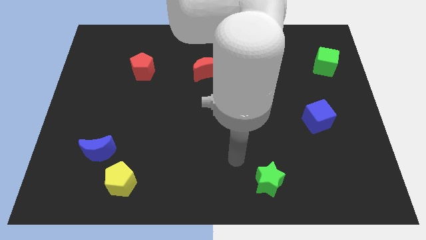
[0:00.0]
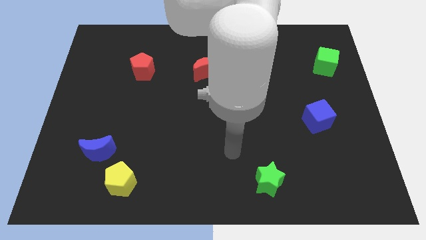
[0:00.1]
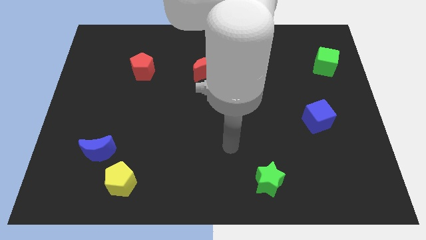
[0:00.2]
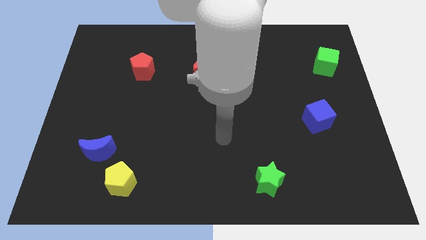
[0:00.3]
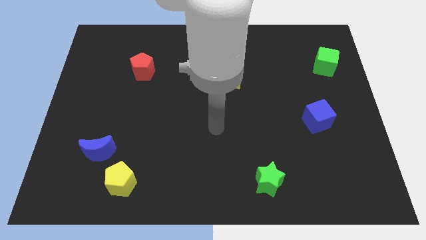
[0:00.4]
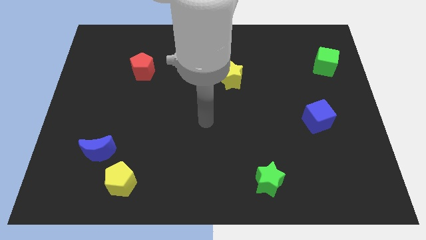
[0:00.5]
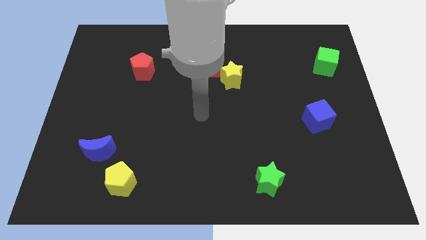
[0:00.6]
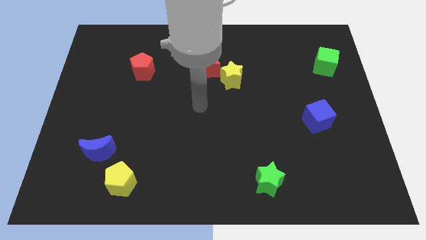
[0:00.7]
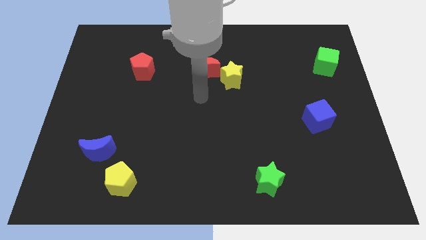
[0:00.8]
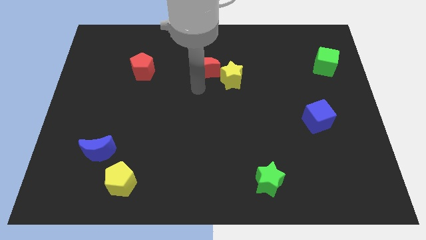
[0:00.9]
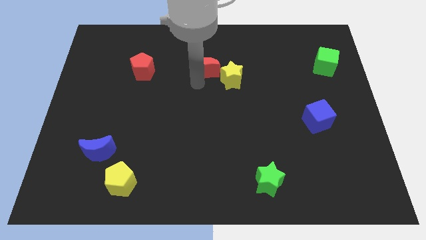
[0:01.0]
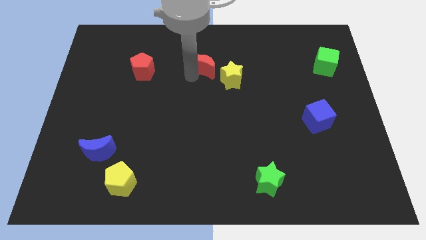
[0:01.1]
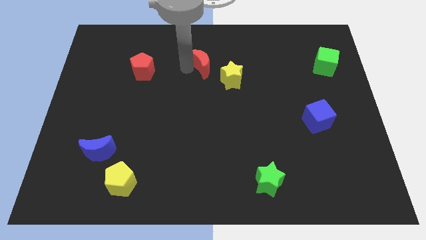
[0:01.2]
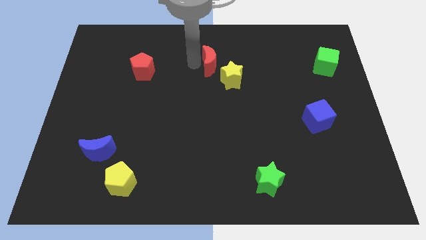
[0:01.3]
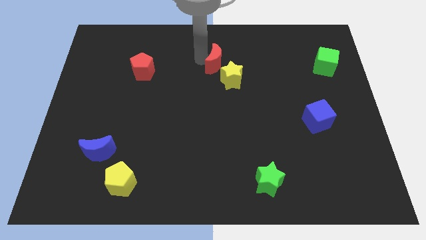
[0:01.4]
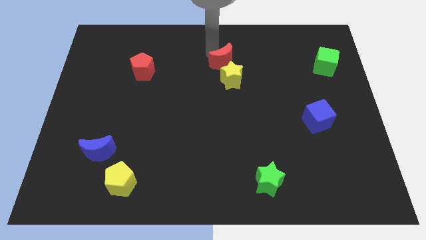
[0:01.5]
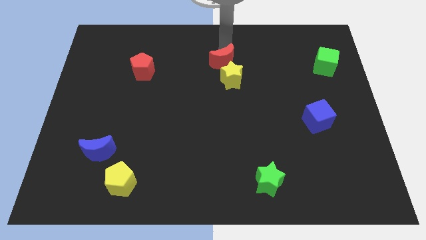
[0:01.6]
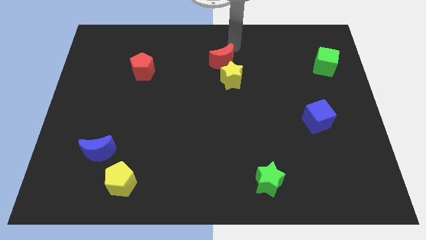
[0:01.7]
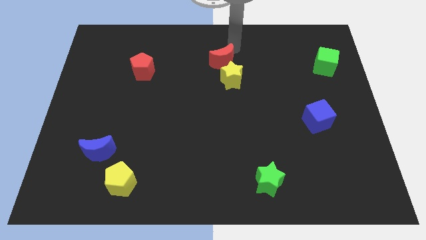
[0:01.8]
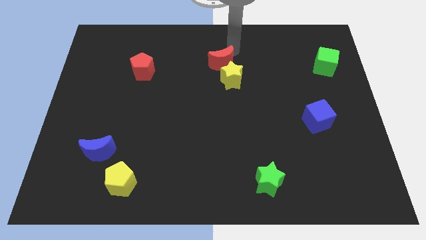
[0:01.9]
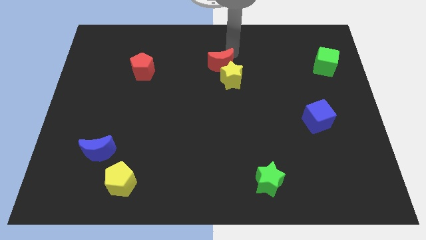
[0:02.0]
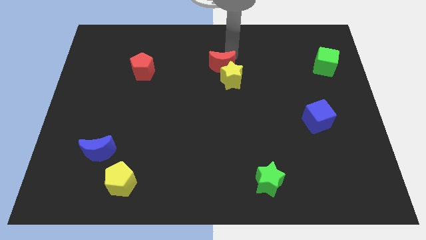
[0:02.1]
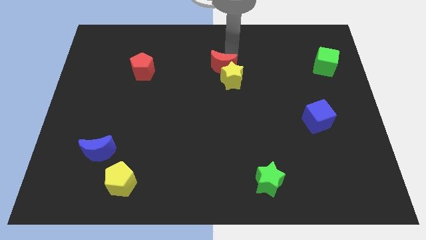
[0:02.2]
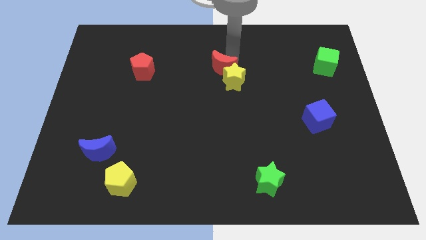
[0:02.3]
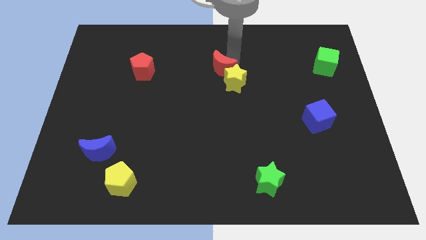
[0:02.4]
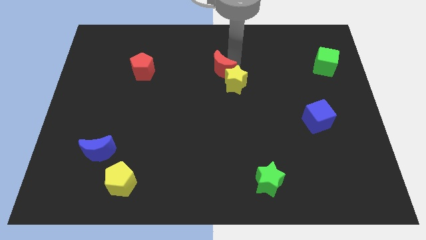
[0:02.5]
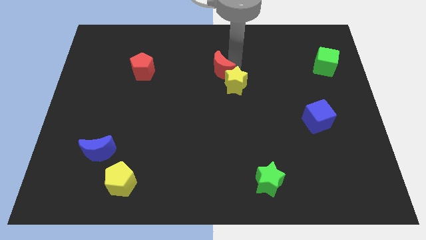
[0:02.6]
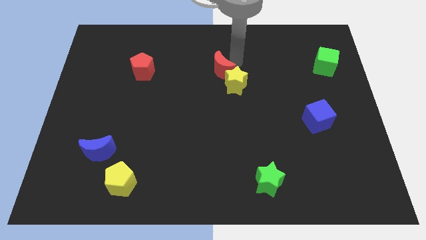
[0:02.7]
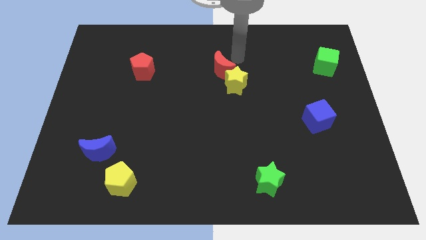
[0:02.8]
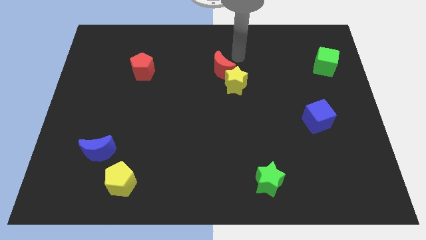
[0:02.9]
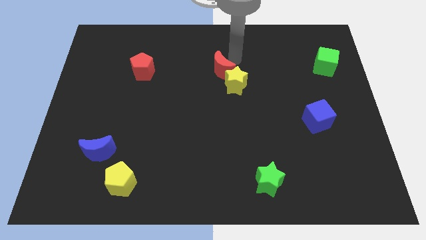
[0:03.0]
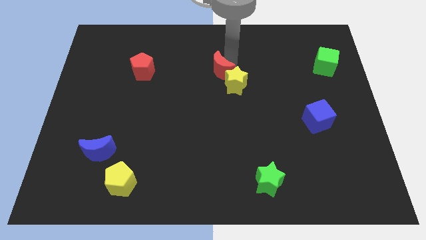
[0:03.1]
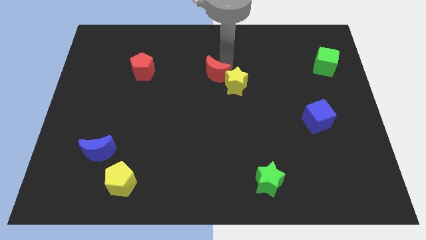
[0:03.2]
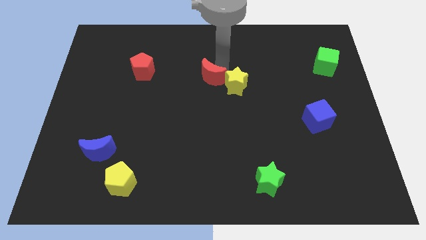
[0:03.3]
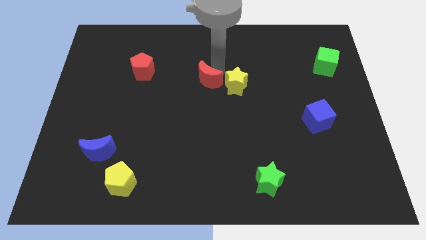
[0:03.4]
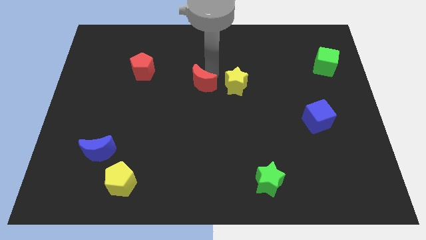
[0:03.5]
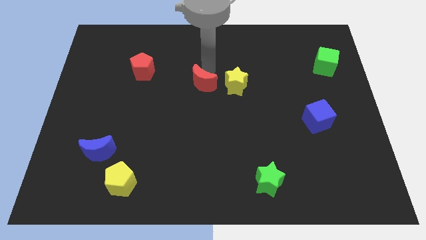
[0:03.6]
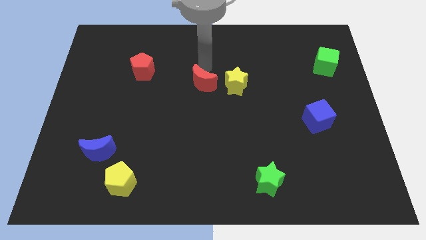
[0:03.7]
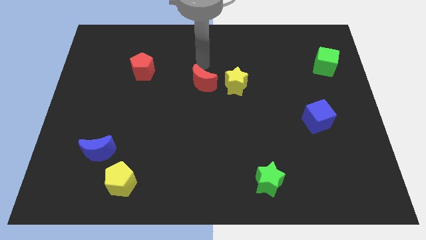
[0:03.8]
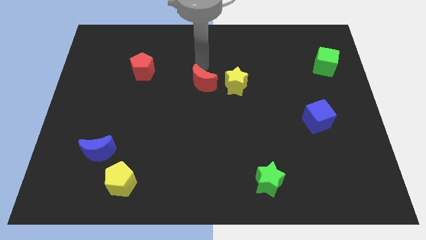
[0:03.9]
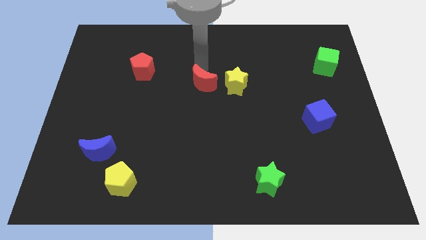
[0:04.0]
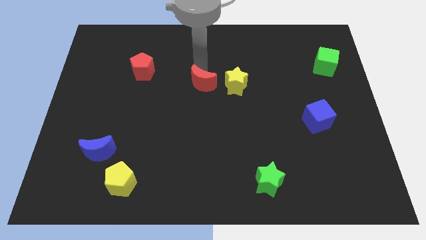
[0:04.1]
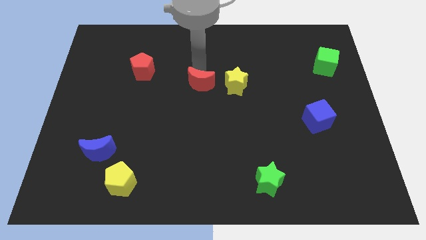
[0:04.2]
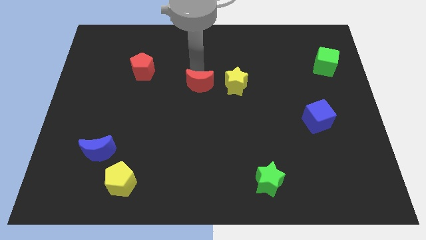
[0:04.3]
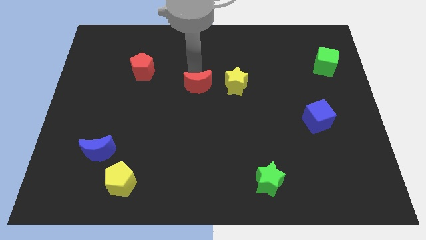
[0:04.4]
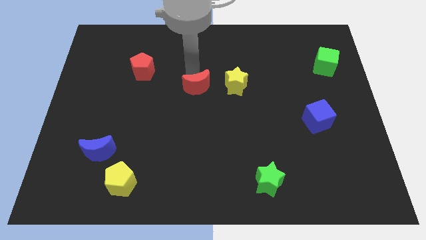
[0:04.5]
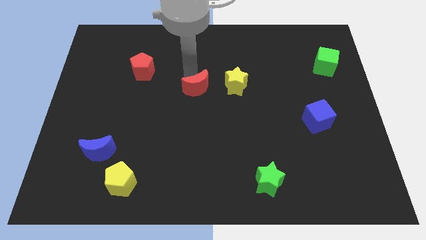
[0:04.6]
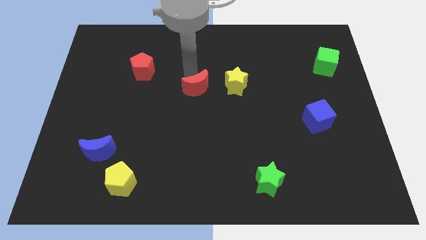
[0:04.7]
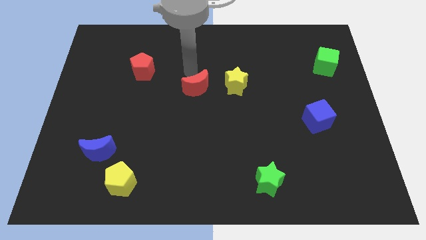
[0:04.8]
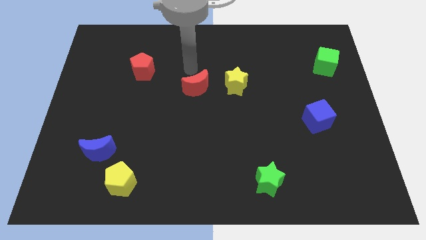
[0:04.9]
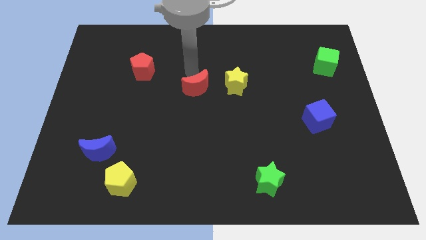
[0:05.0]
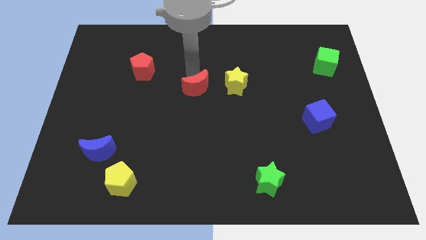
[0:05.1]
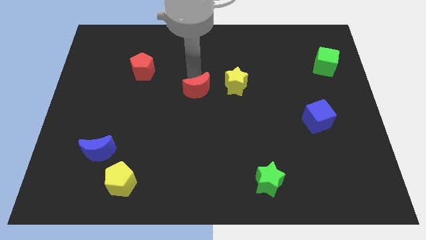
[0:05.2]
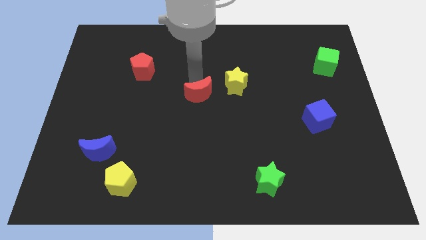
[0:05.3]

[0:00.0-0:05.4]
slightly move the red moon down

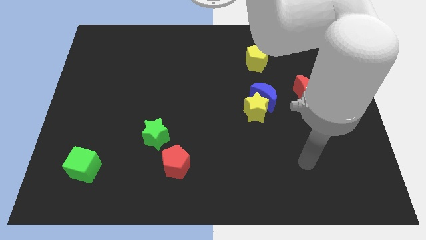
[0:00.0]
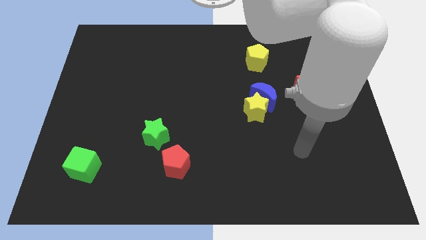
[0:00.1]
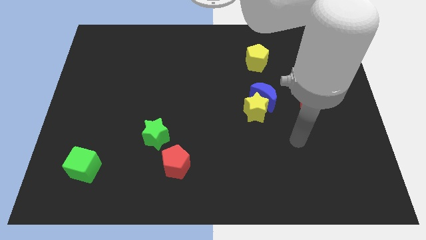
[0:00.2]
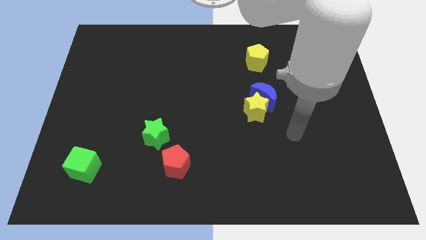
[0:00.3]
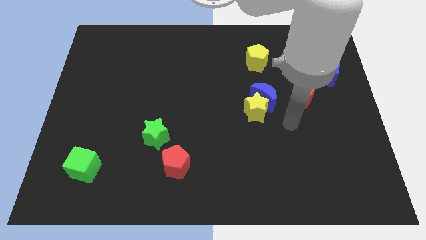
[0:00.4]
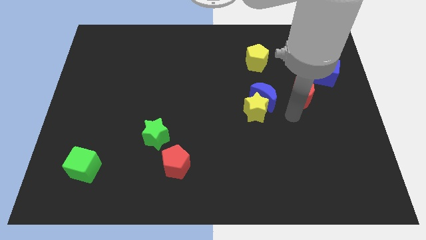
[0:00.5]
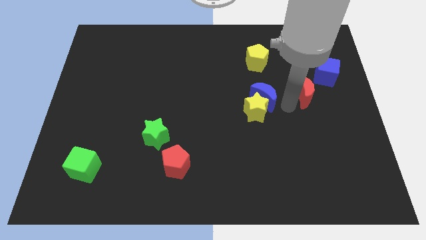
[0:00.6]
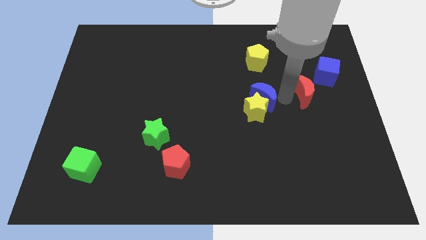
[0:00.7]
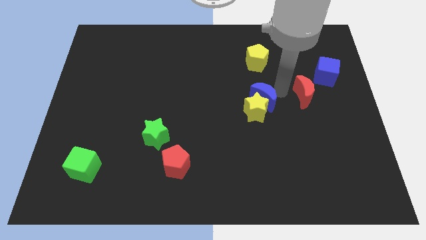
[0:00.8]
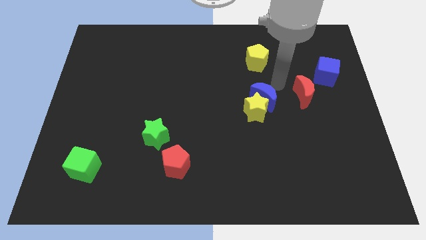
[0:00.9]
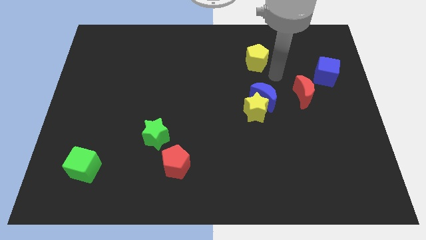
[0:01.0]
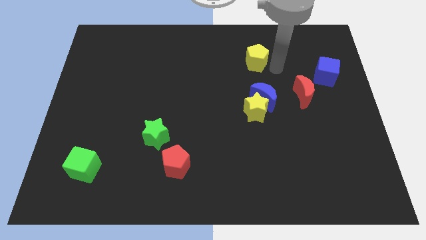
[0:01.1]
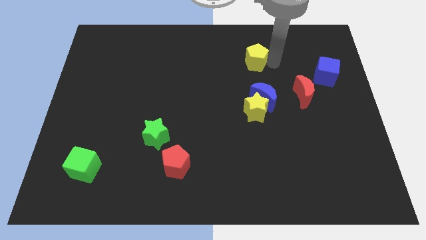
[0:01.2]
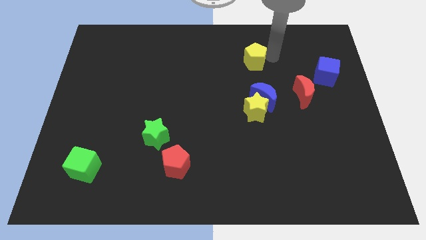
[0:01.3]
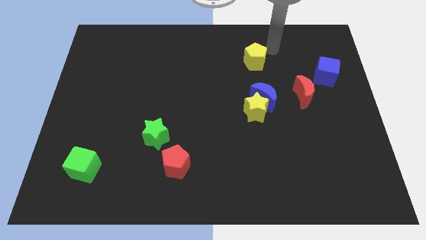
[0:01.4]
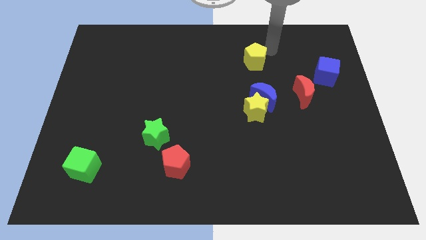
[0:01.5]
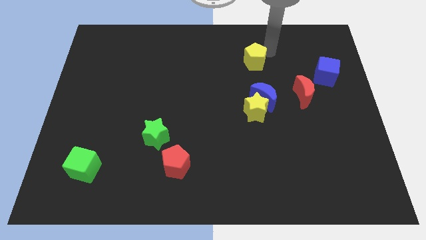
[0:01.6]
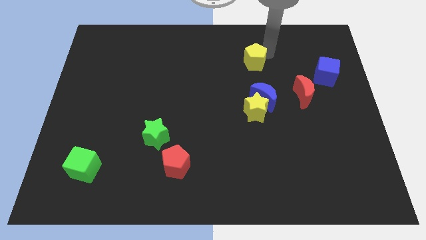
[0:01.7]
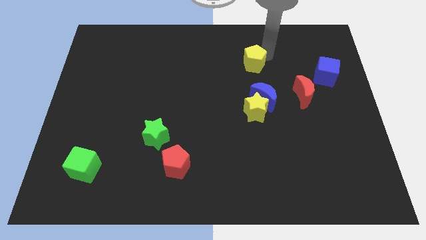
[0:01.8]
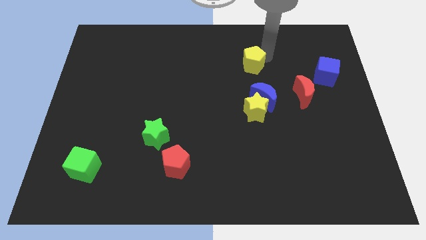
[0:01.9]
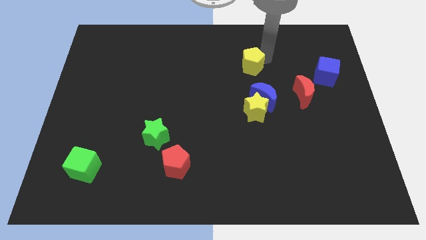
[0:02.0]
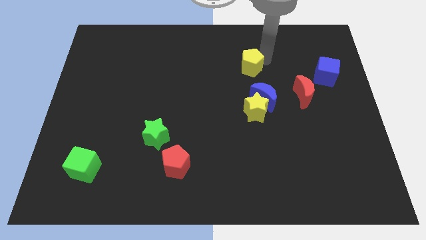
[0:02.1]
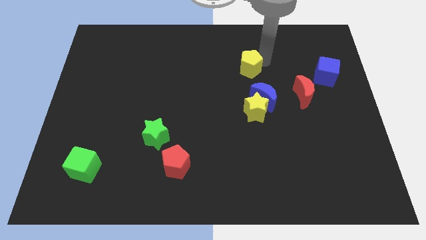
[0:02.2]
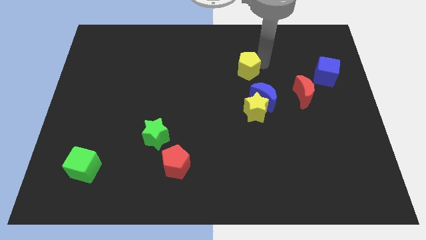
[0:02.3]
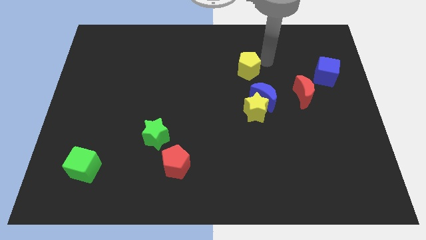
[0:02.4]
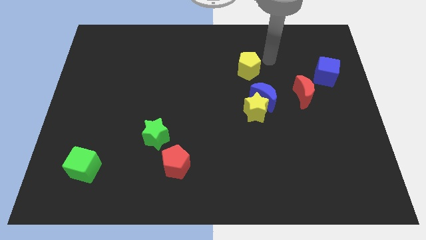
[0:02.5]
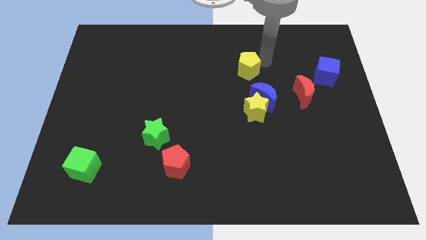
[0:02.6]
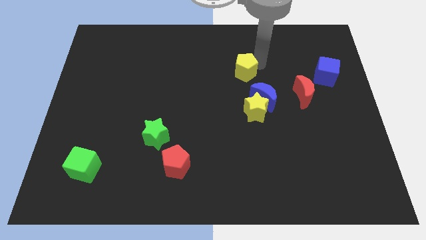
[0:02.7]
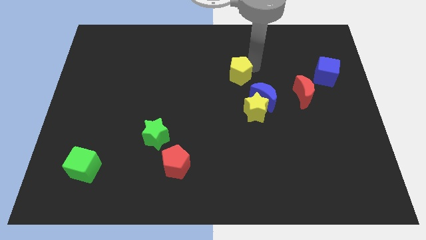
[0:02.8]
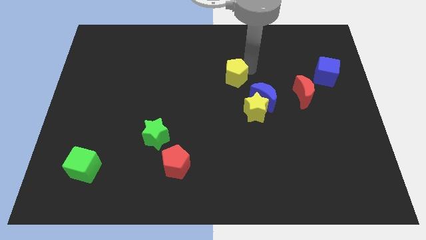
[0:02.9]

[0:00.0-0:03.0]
slide the yellow pentagon downwards and then to the left a little
